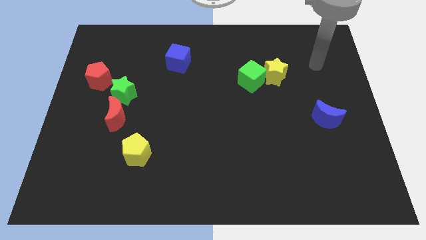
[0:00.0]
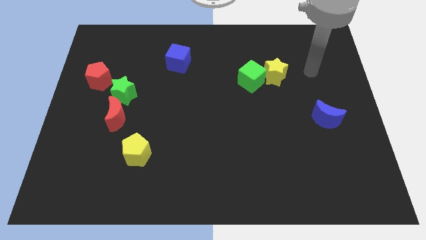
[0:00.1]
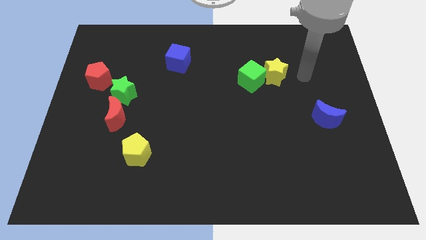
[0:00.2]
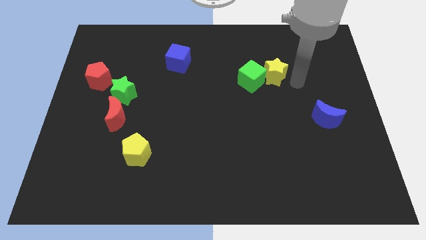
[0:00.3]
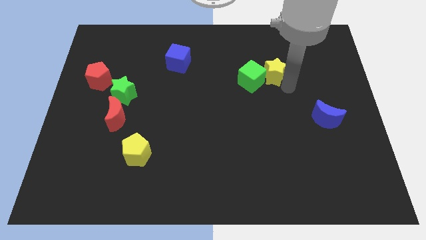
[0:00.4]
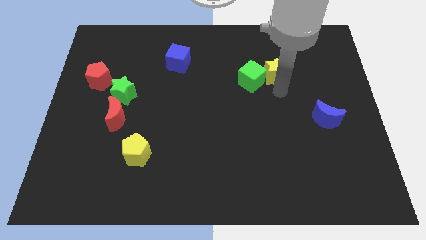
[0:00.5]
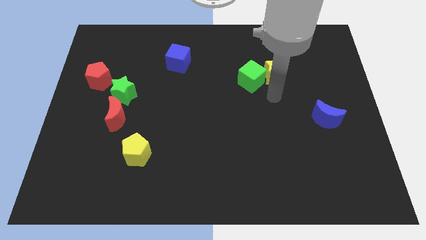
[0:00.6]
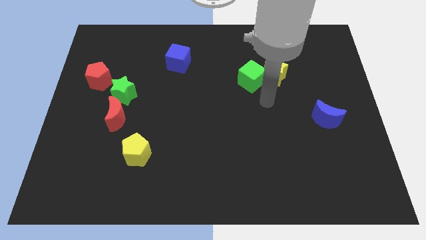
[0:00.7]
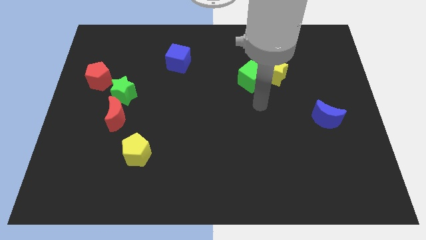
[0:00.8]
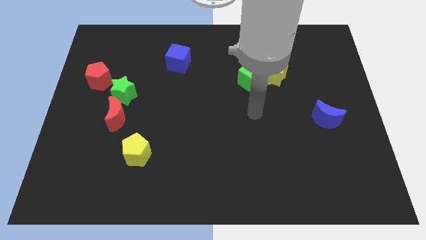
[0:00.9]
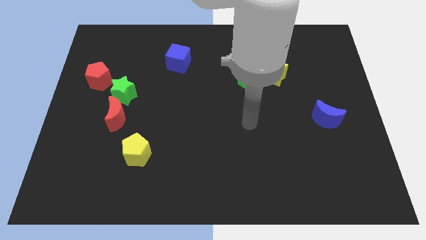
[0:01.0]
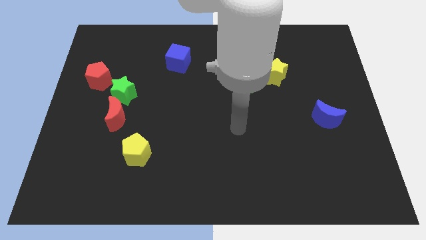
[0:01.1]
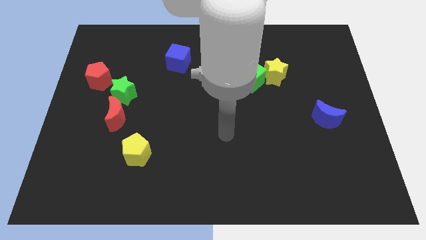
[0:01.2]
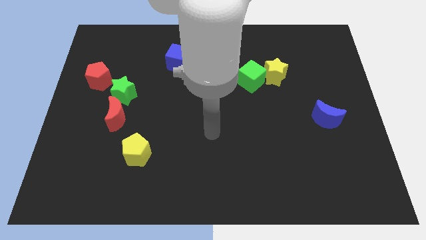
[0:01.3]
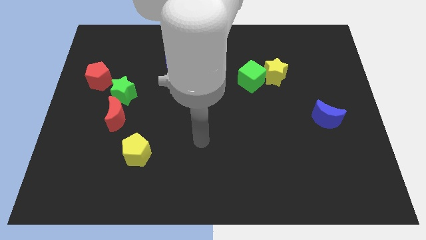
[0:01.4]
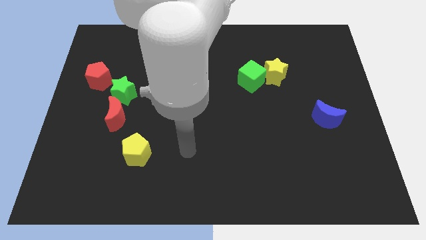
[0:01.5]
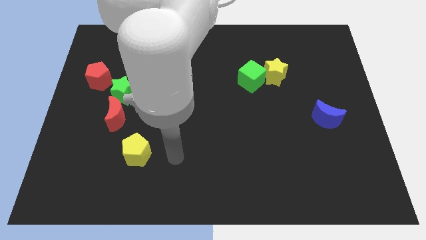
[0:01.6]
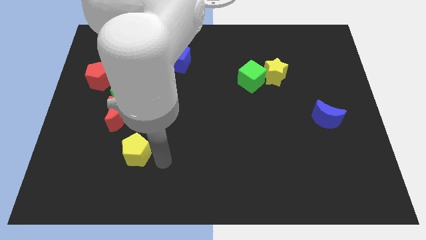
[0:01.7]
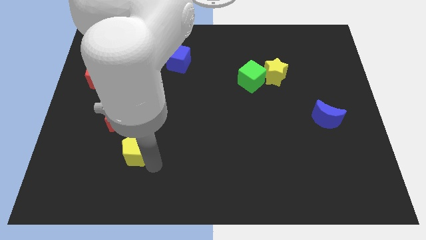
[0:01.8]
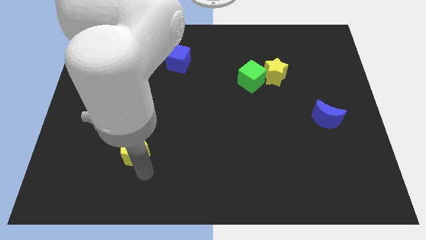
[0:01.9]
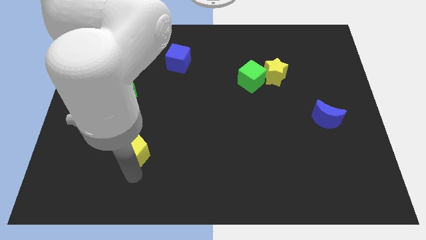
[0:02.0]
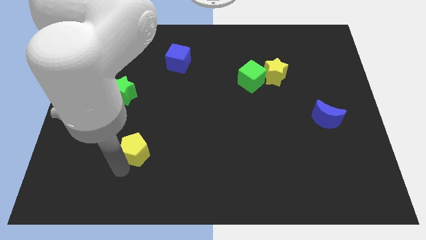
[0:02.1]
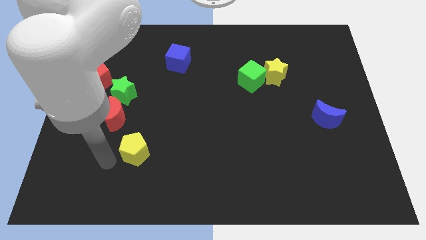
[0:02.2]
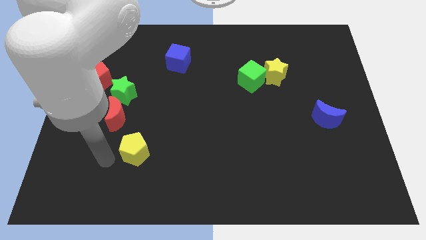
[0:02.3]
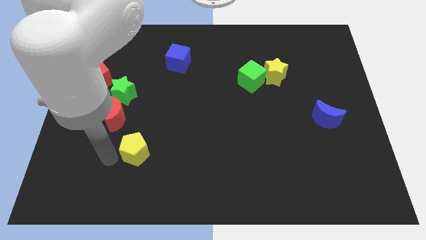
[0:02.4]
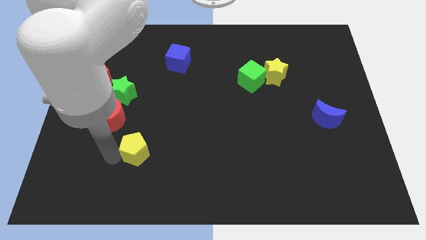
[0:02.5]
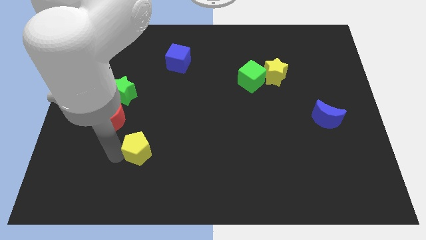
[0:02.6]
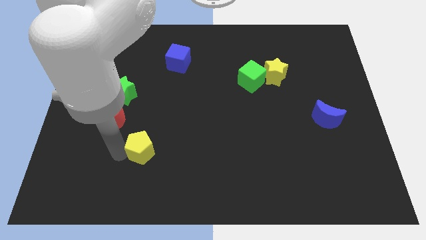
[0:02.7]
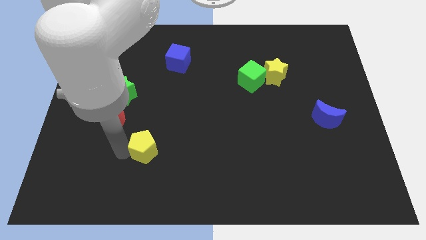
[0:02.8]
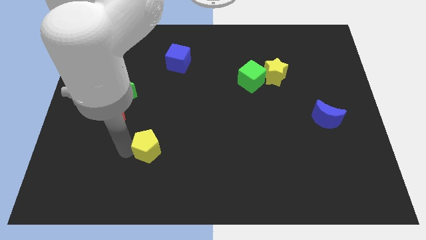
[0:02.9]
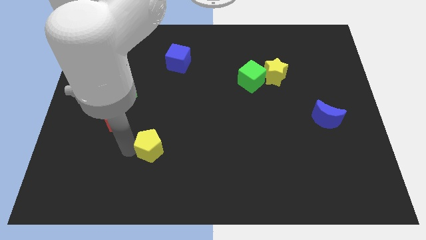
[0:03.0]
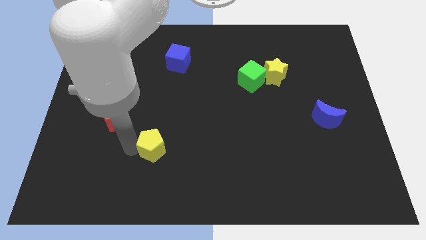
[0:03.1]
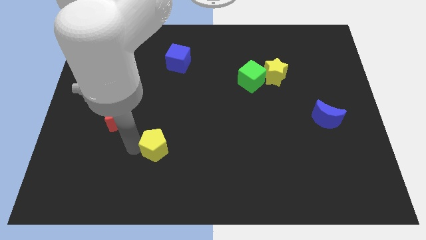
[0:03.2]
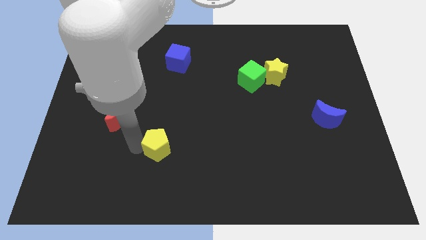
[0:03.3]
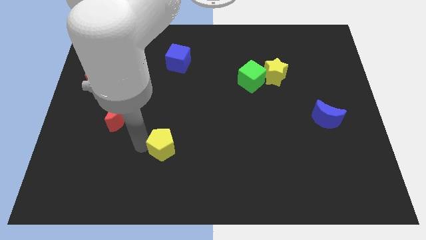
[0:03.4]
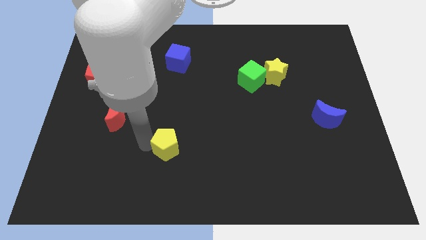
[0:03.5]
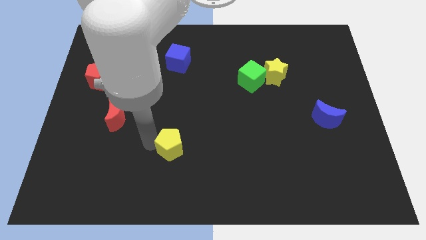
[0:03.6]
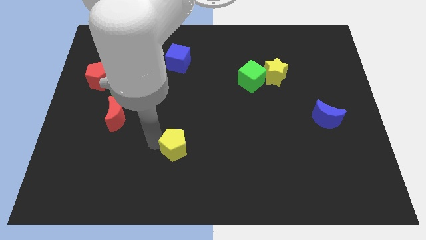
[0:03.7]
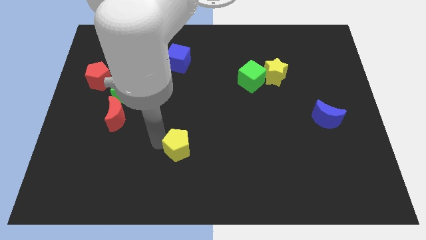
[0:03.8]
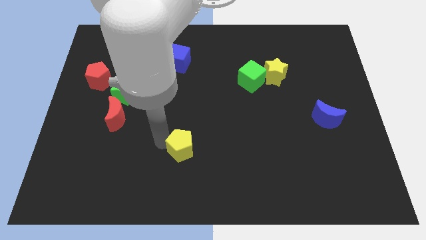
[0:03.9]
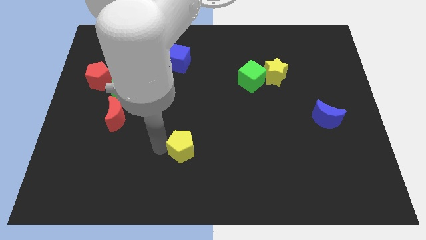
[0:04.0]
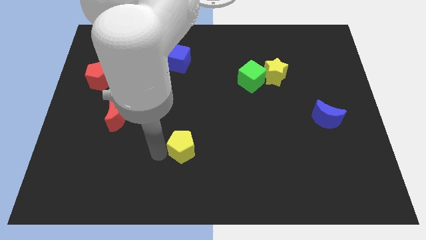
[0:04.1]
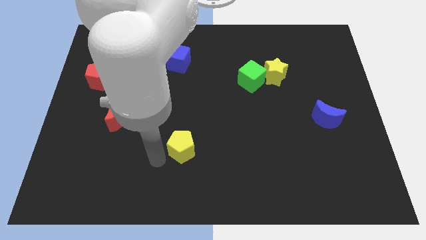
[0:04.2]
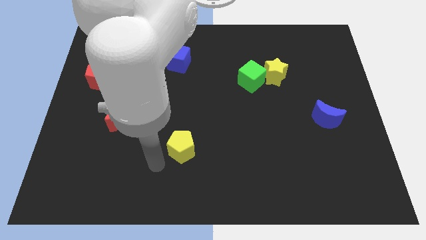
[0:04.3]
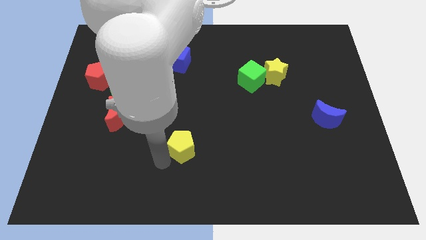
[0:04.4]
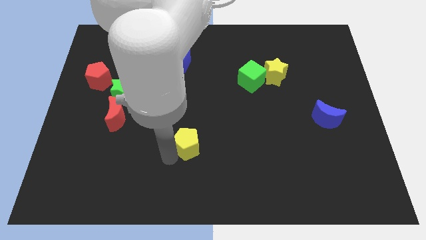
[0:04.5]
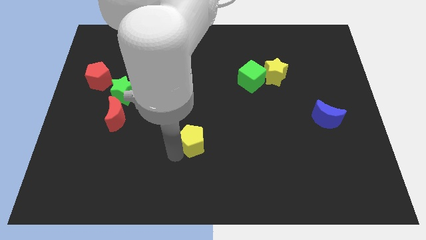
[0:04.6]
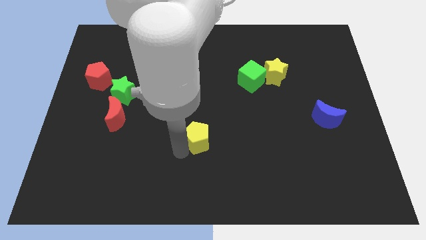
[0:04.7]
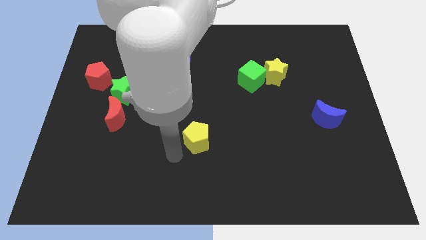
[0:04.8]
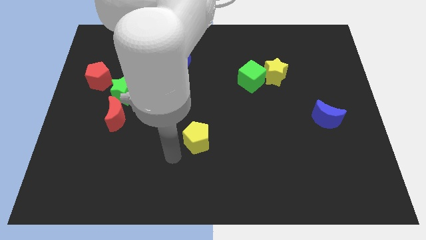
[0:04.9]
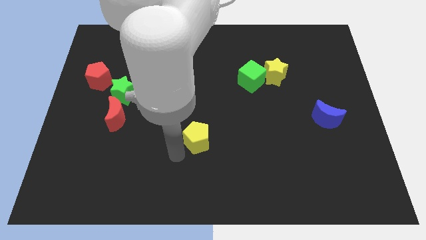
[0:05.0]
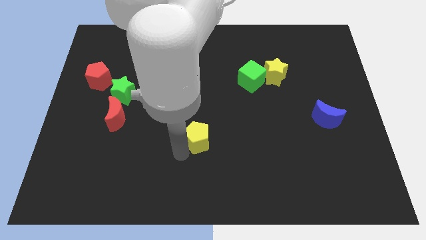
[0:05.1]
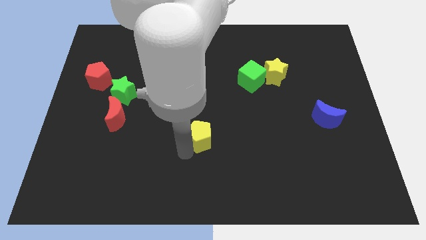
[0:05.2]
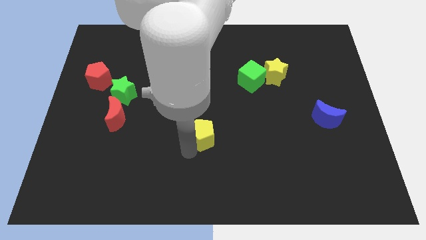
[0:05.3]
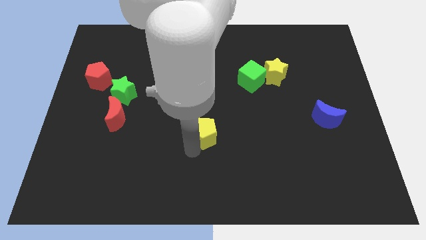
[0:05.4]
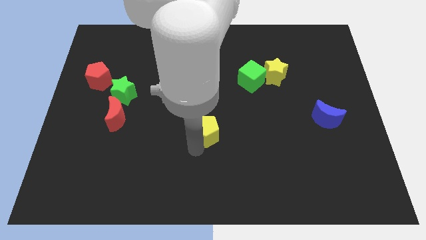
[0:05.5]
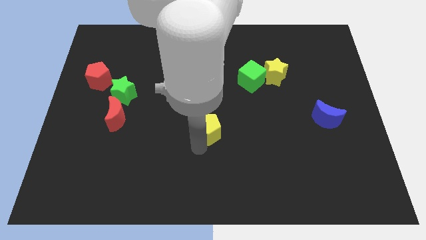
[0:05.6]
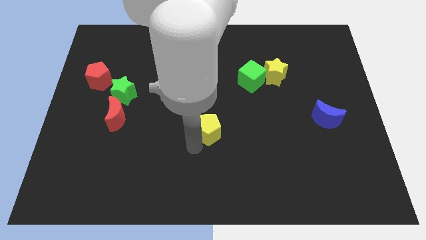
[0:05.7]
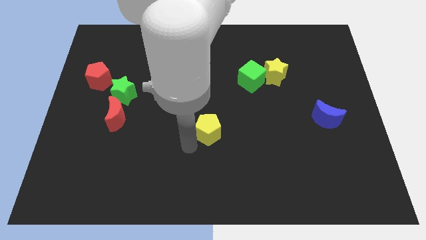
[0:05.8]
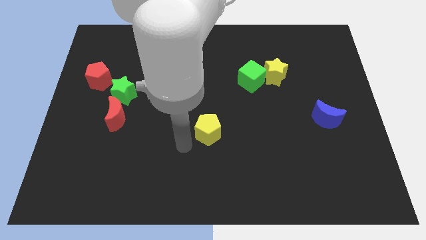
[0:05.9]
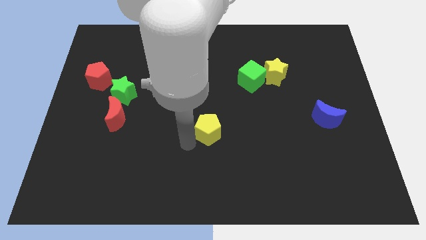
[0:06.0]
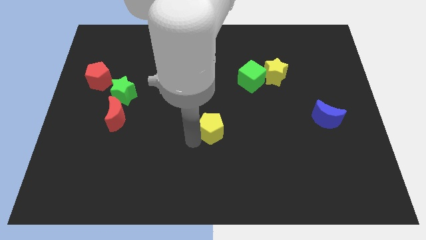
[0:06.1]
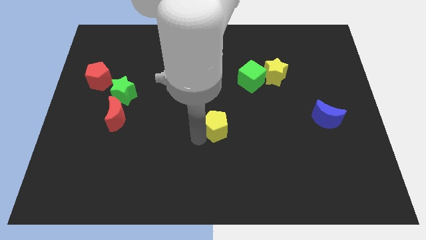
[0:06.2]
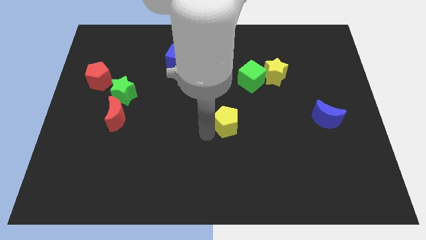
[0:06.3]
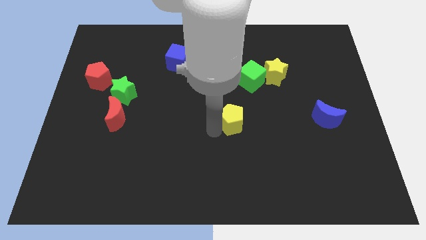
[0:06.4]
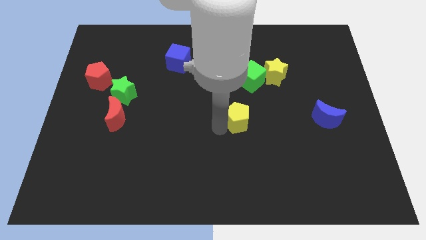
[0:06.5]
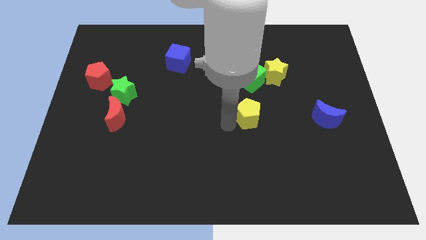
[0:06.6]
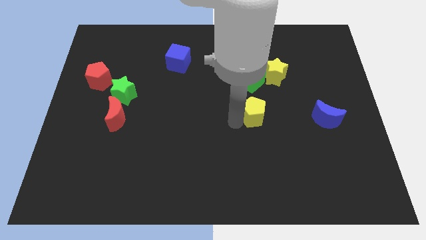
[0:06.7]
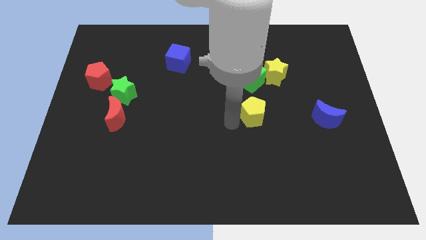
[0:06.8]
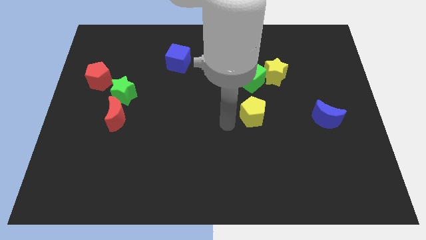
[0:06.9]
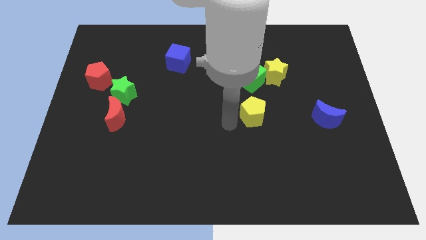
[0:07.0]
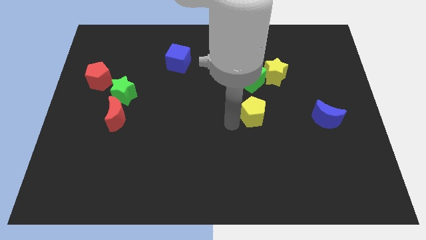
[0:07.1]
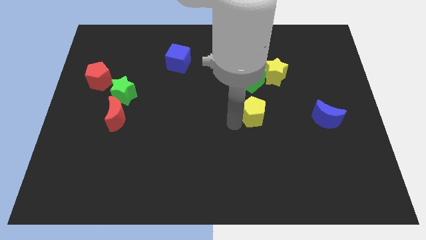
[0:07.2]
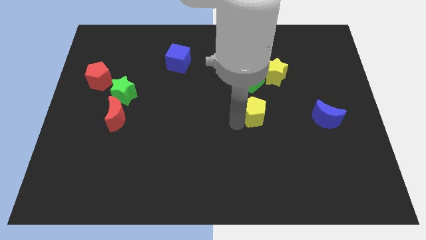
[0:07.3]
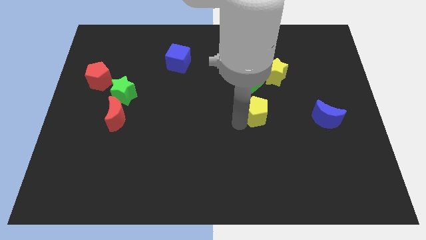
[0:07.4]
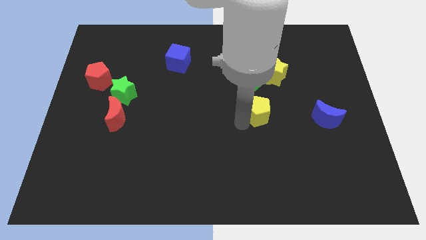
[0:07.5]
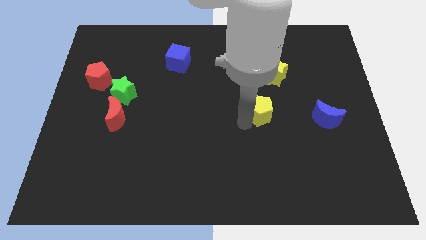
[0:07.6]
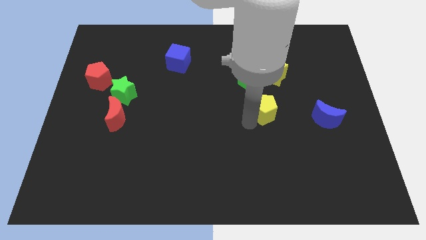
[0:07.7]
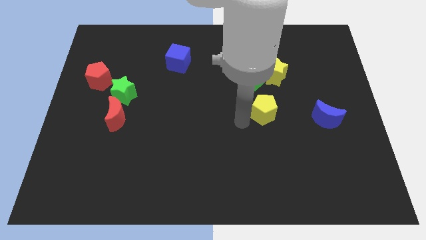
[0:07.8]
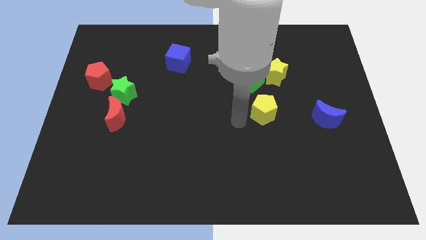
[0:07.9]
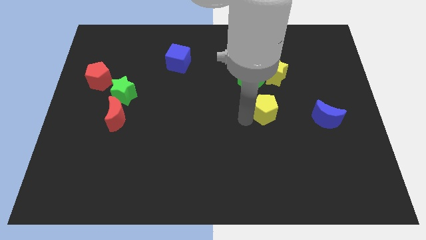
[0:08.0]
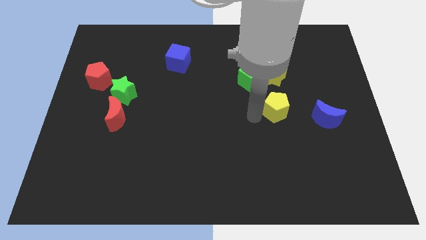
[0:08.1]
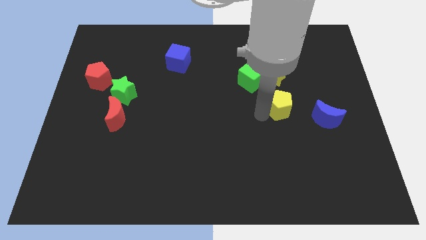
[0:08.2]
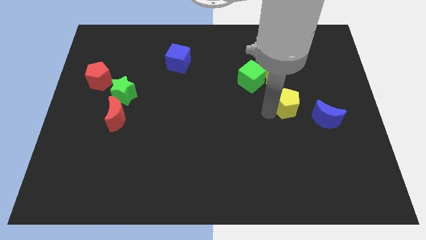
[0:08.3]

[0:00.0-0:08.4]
push the yellow pentagon diagonally up and to the left of the blue moon
